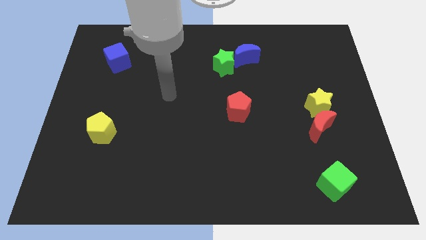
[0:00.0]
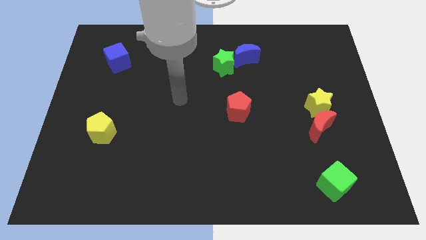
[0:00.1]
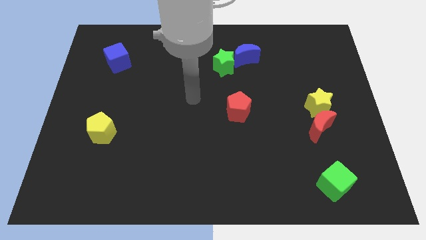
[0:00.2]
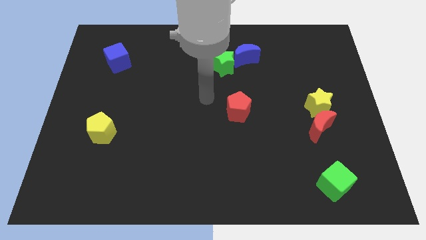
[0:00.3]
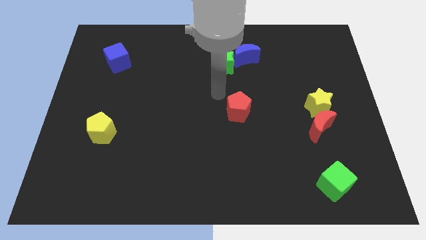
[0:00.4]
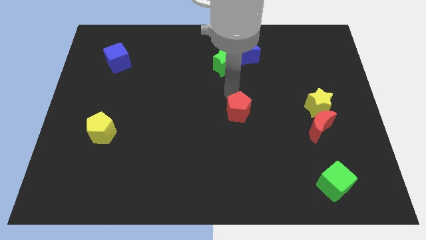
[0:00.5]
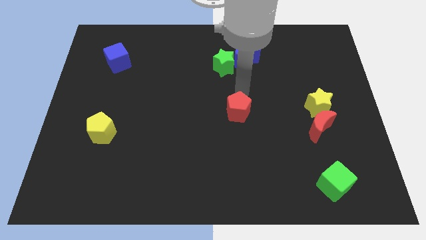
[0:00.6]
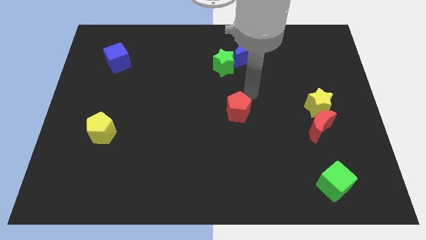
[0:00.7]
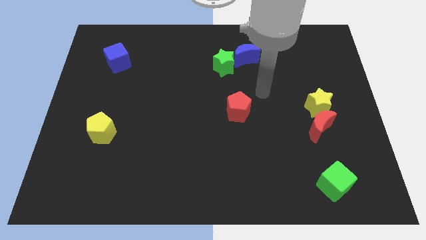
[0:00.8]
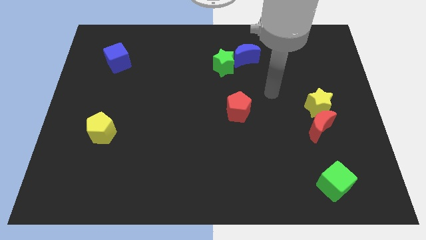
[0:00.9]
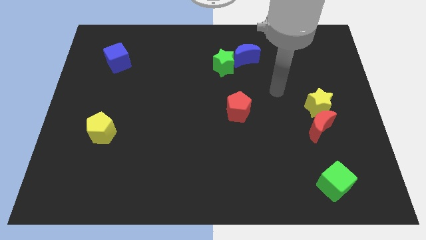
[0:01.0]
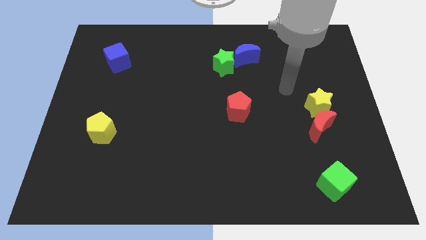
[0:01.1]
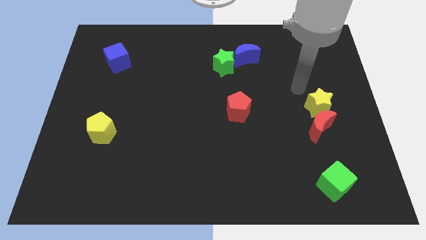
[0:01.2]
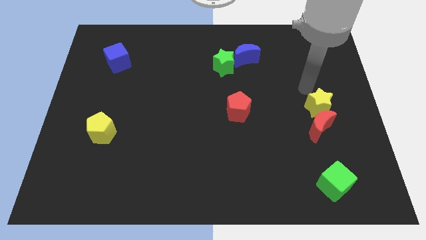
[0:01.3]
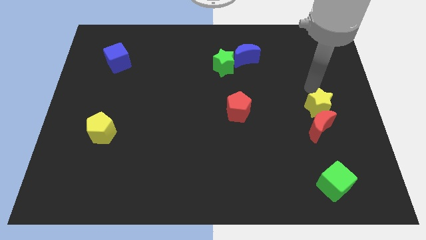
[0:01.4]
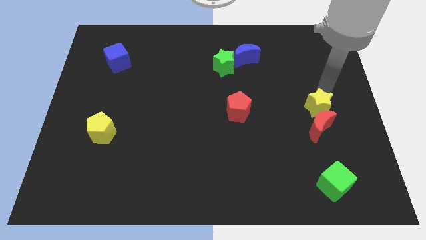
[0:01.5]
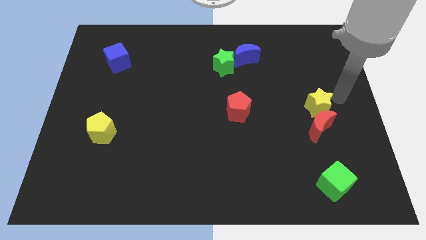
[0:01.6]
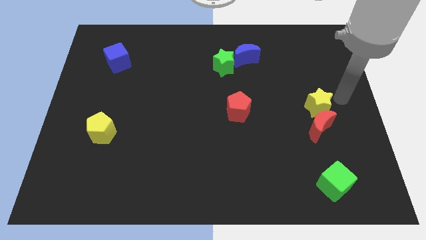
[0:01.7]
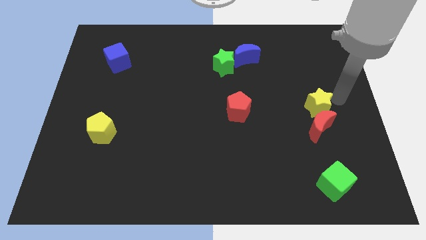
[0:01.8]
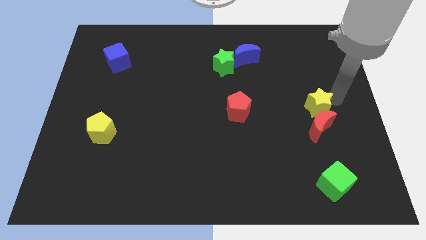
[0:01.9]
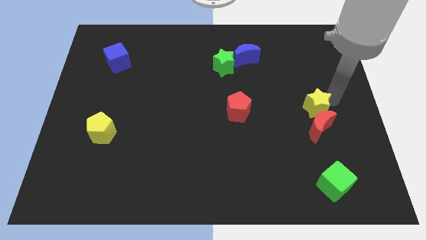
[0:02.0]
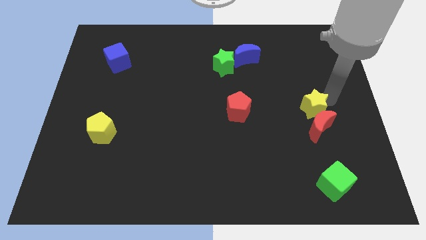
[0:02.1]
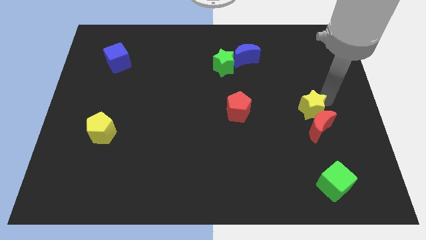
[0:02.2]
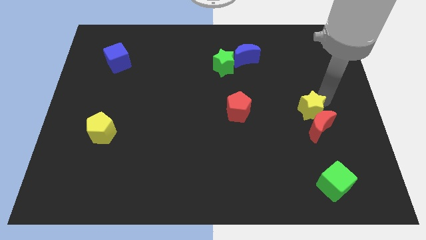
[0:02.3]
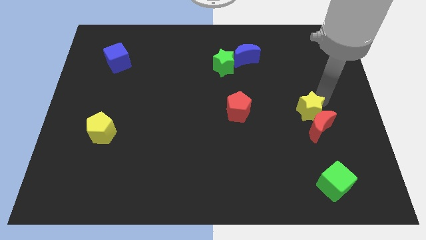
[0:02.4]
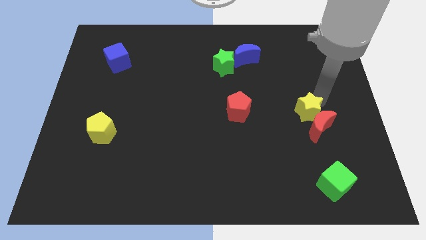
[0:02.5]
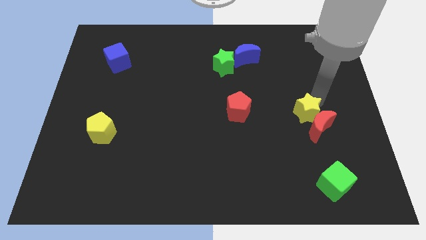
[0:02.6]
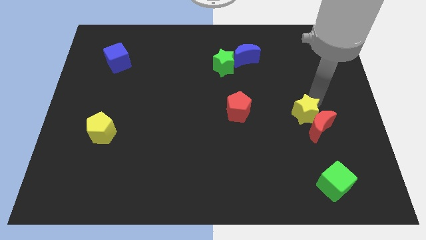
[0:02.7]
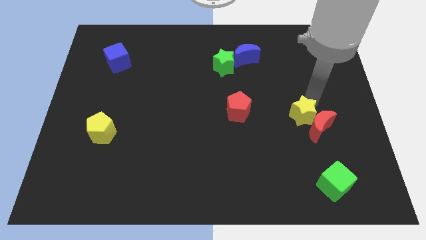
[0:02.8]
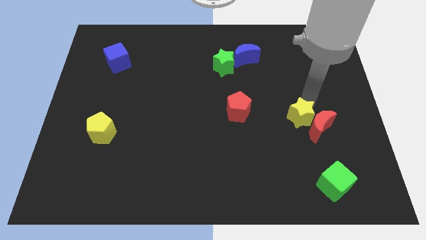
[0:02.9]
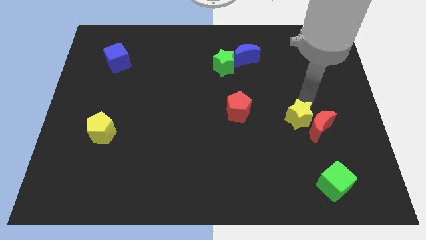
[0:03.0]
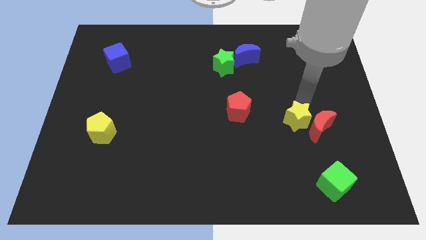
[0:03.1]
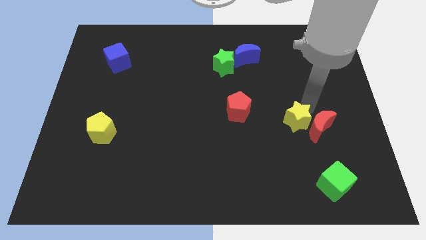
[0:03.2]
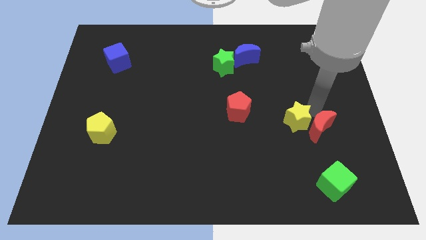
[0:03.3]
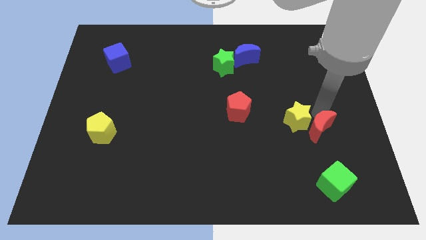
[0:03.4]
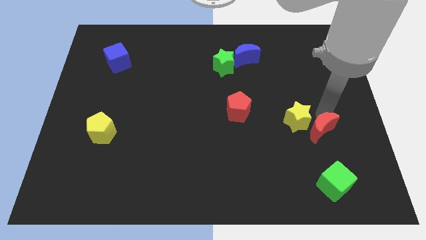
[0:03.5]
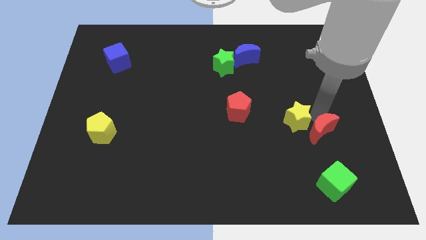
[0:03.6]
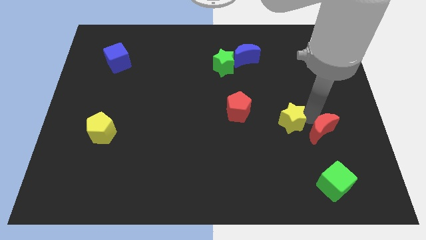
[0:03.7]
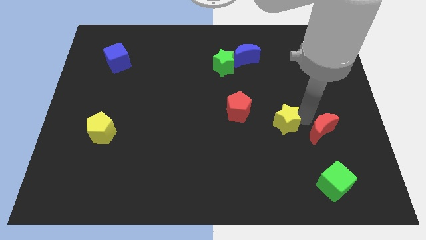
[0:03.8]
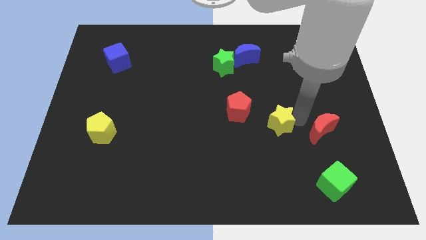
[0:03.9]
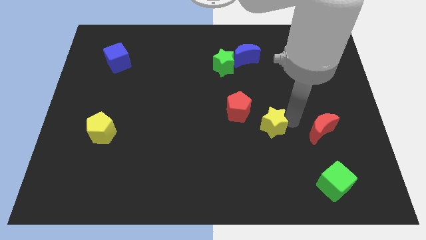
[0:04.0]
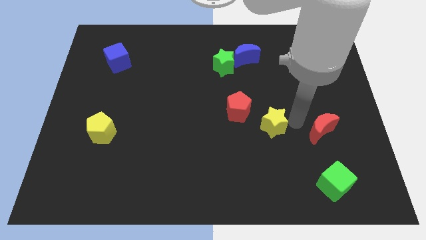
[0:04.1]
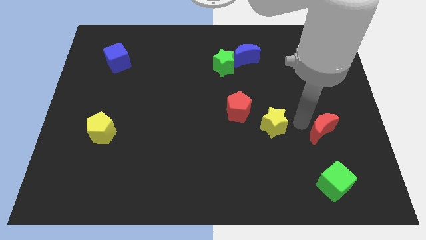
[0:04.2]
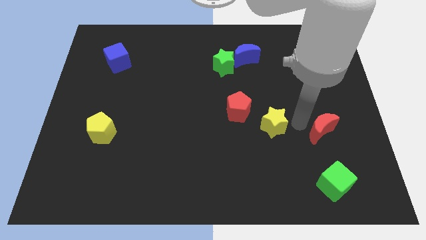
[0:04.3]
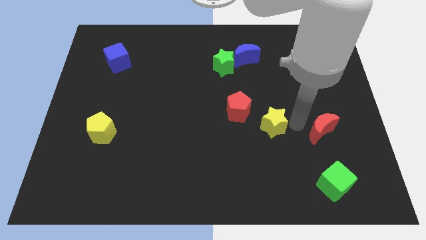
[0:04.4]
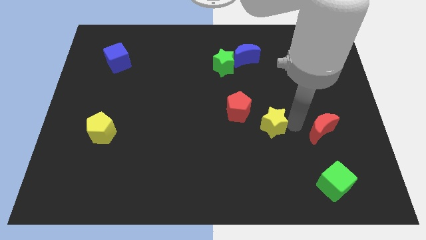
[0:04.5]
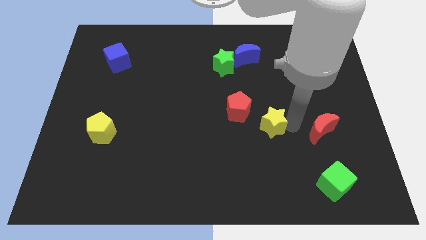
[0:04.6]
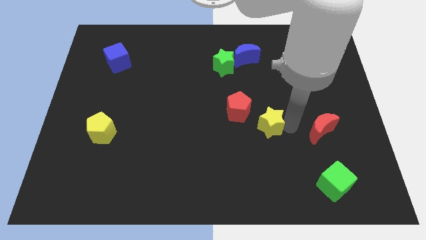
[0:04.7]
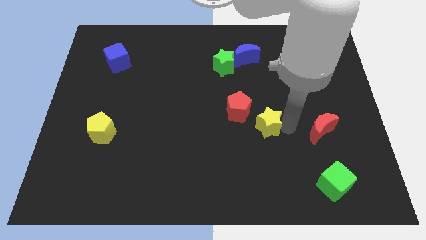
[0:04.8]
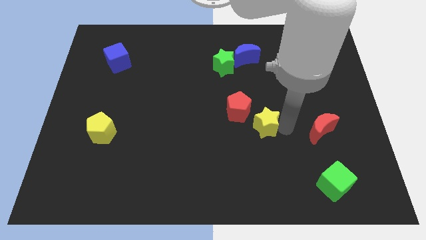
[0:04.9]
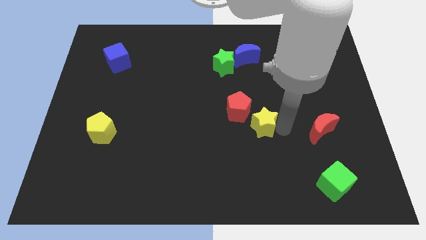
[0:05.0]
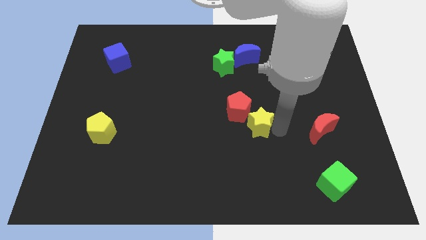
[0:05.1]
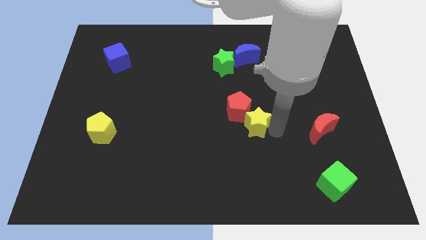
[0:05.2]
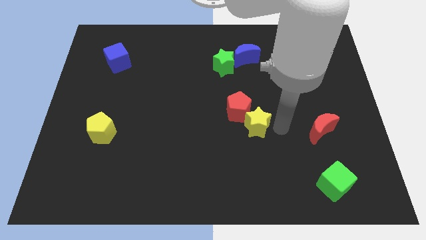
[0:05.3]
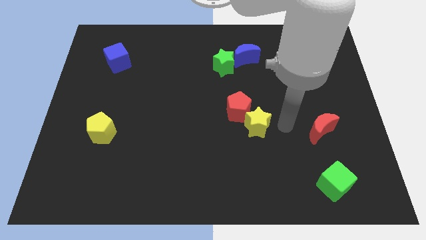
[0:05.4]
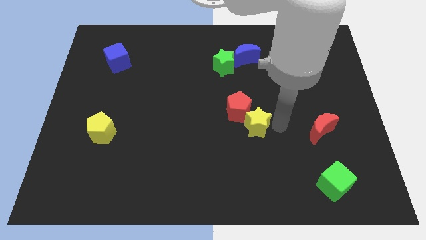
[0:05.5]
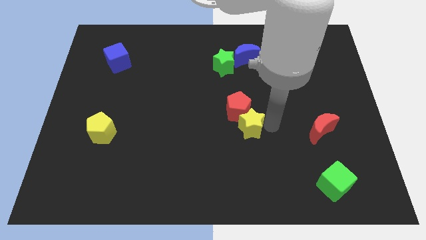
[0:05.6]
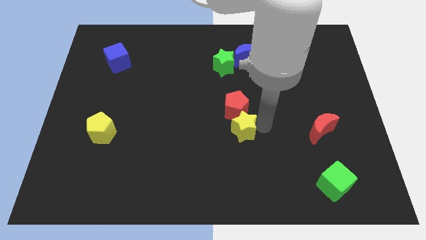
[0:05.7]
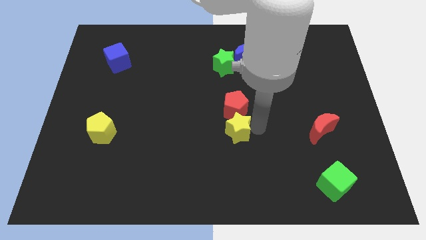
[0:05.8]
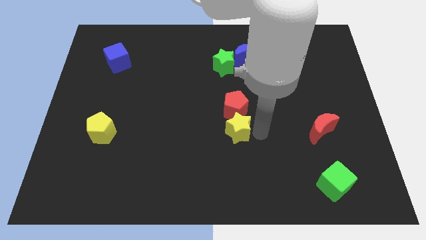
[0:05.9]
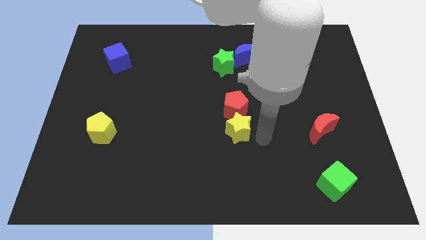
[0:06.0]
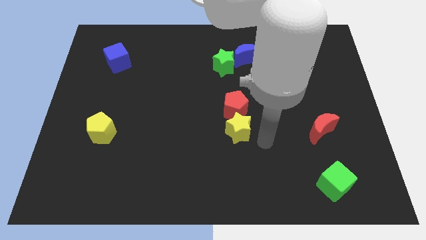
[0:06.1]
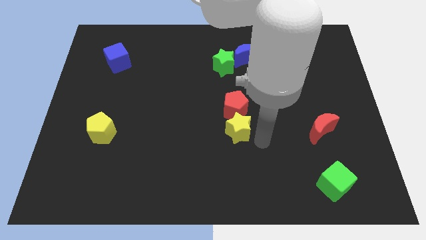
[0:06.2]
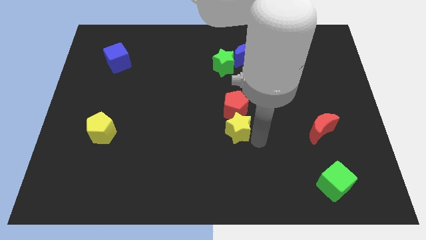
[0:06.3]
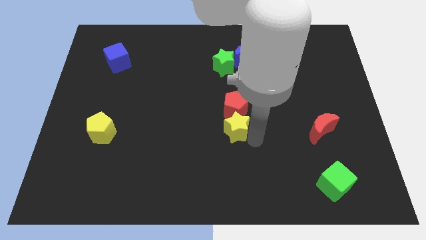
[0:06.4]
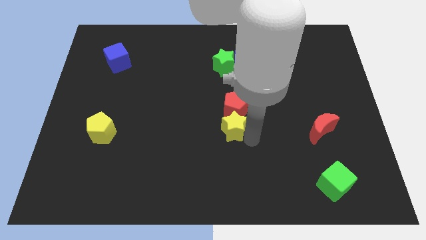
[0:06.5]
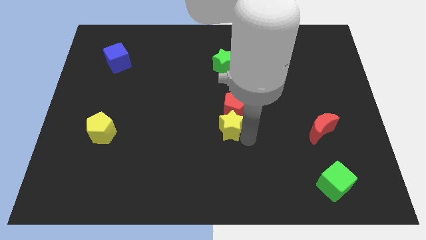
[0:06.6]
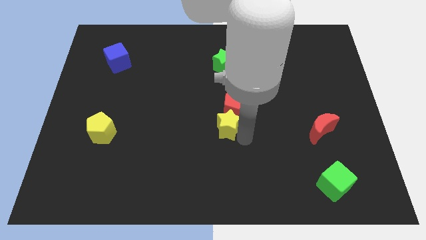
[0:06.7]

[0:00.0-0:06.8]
push the yellow star left

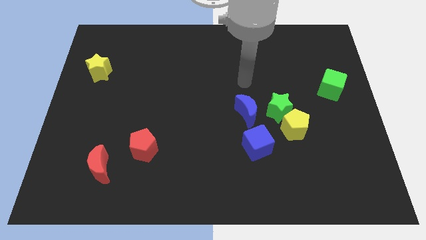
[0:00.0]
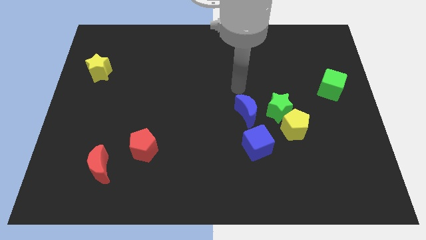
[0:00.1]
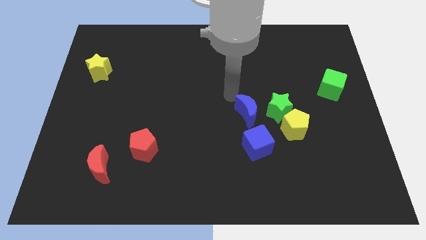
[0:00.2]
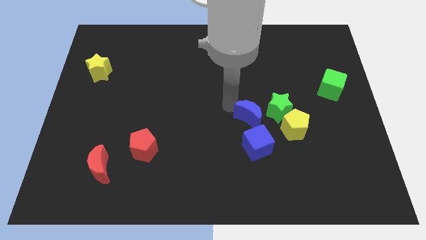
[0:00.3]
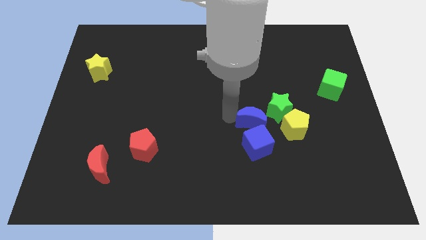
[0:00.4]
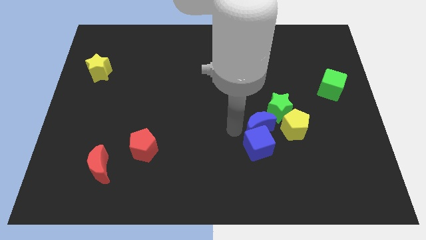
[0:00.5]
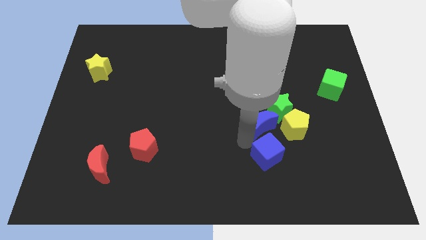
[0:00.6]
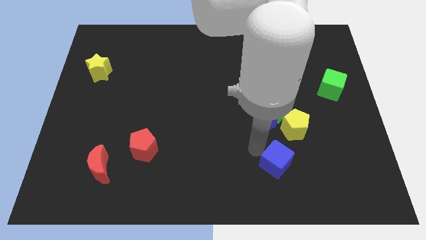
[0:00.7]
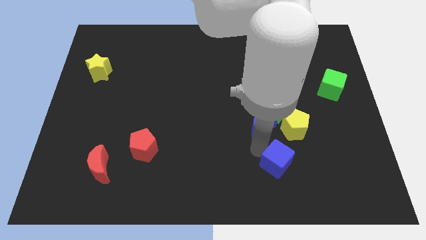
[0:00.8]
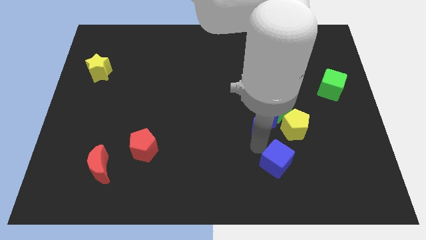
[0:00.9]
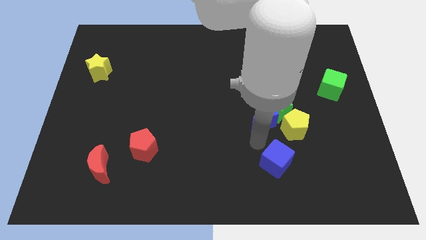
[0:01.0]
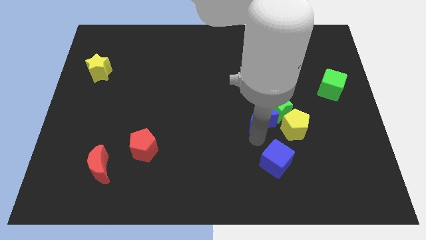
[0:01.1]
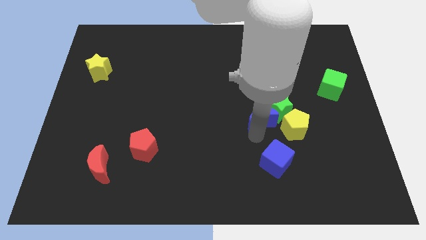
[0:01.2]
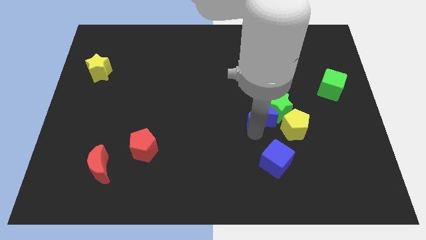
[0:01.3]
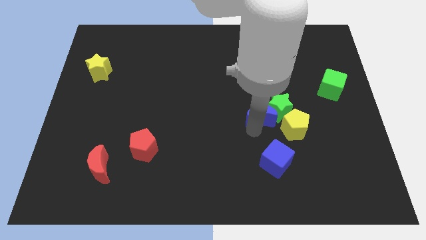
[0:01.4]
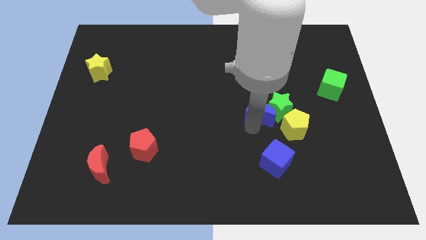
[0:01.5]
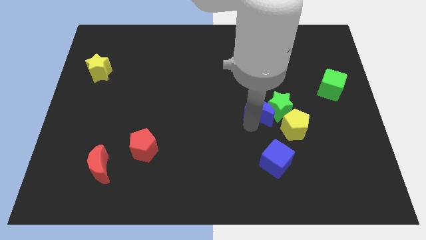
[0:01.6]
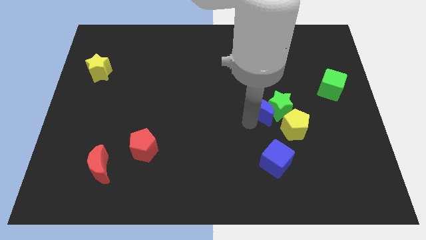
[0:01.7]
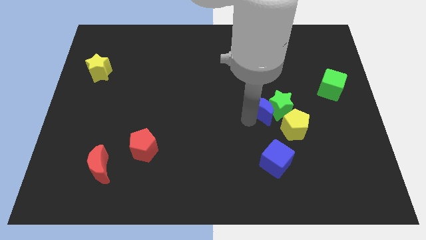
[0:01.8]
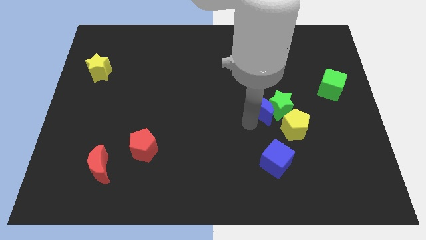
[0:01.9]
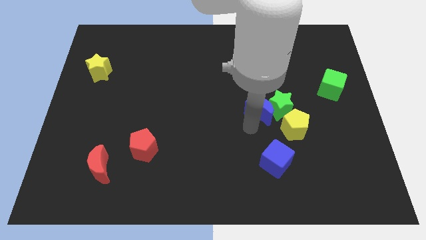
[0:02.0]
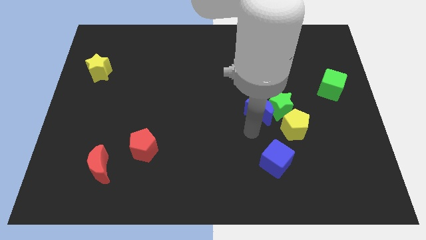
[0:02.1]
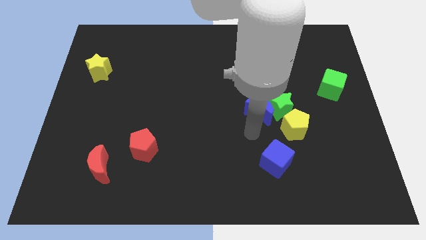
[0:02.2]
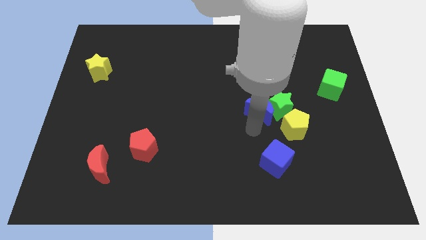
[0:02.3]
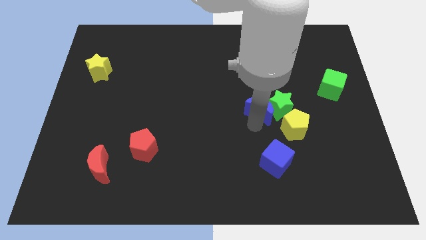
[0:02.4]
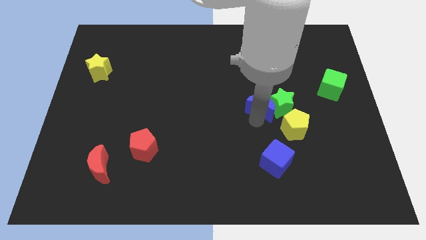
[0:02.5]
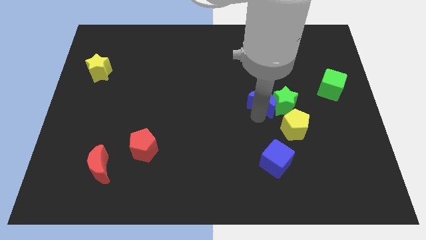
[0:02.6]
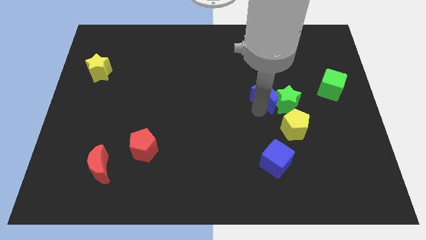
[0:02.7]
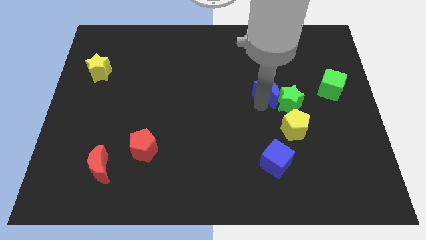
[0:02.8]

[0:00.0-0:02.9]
slightly move the blue moon up and to the right
